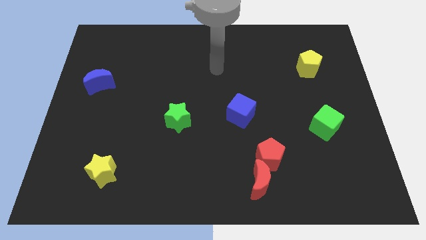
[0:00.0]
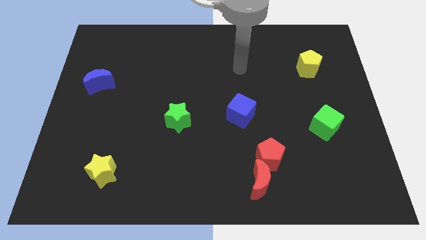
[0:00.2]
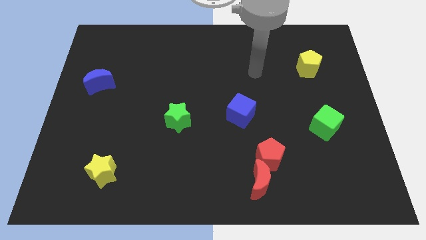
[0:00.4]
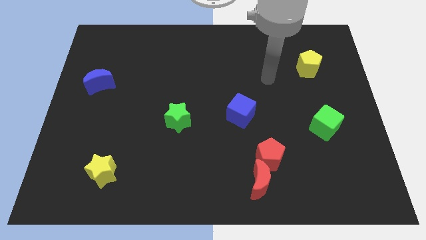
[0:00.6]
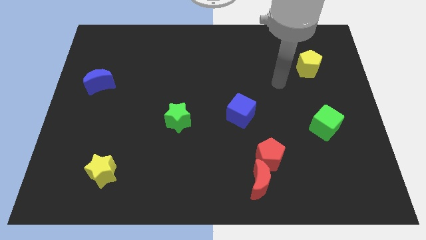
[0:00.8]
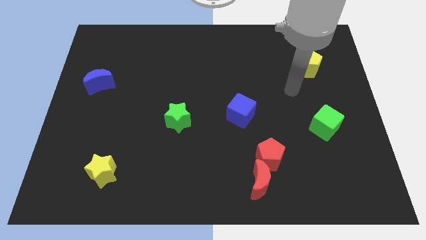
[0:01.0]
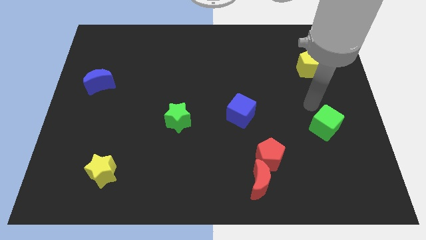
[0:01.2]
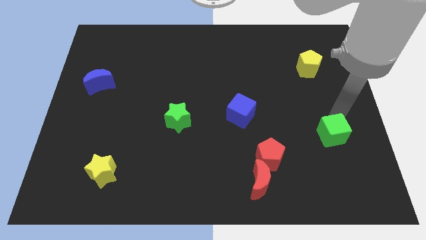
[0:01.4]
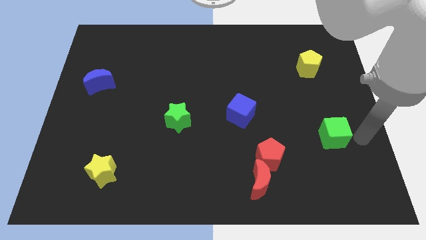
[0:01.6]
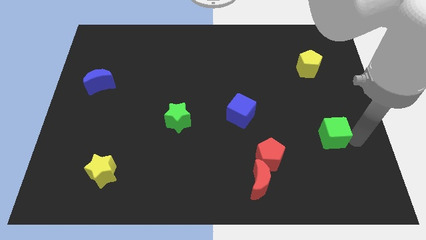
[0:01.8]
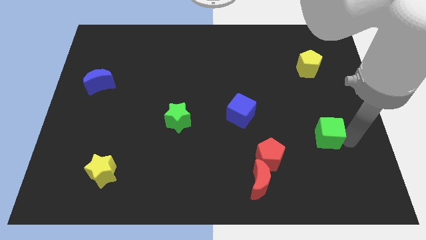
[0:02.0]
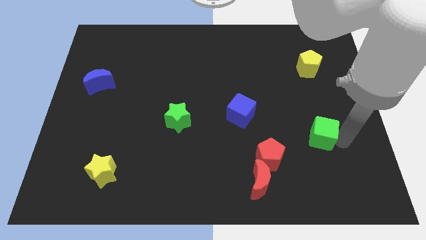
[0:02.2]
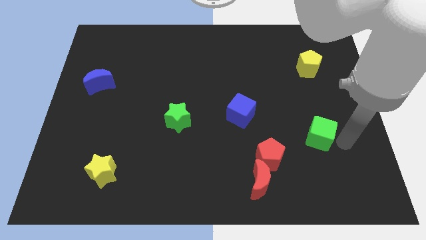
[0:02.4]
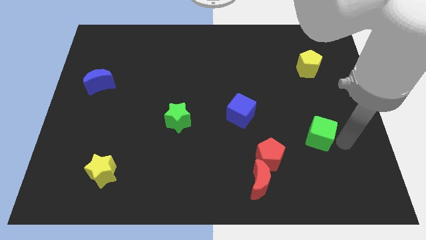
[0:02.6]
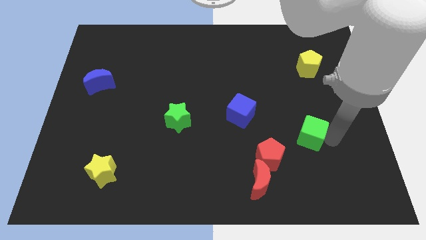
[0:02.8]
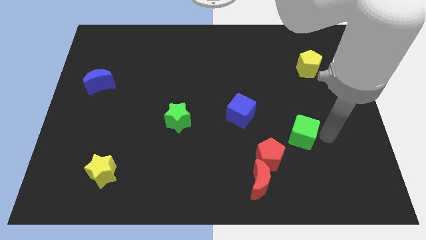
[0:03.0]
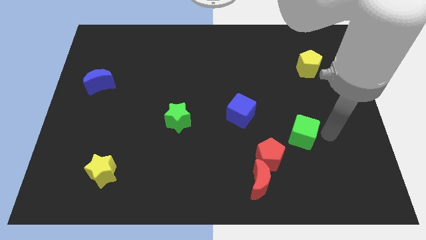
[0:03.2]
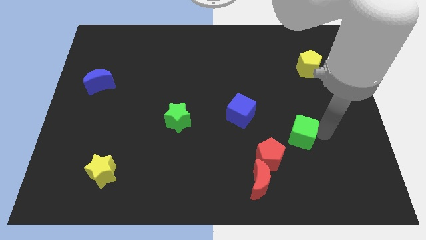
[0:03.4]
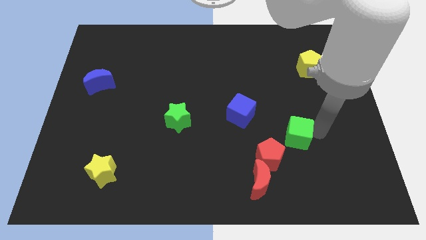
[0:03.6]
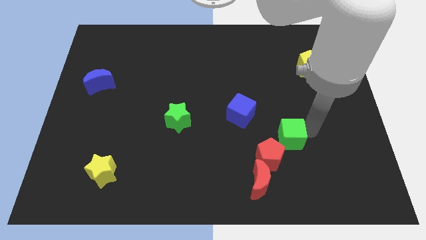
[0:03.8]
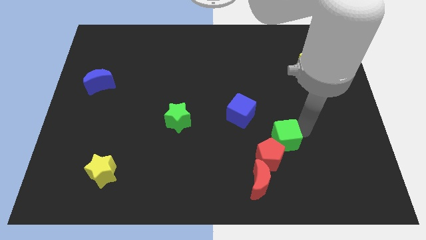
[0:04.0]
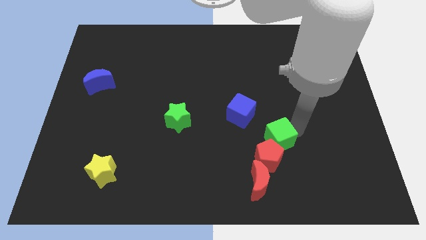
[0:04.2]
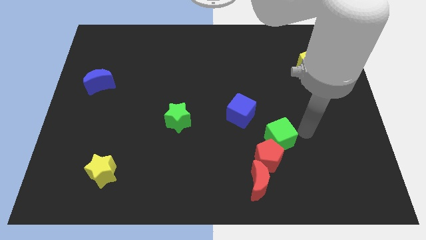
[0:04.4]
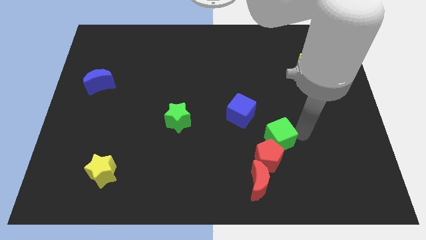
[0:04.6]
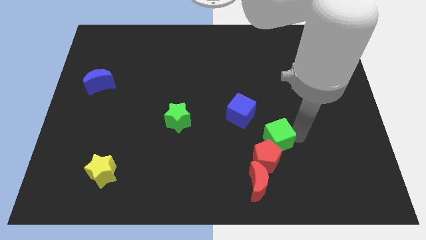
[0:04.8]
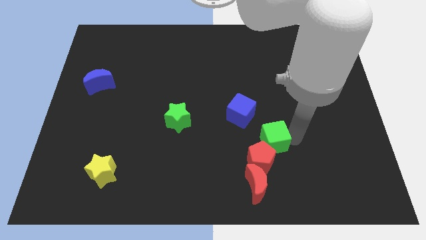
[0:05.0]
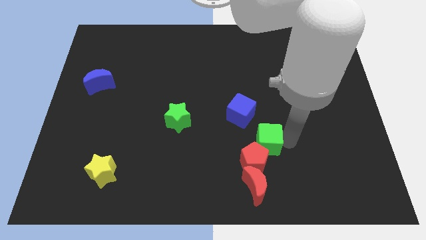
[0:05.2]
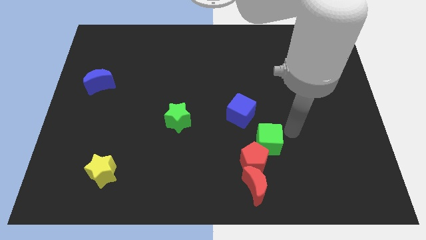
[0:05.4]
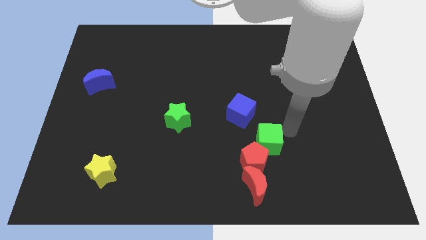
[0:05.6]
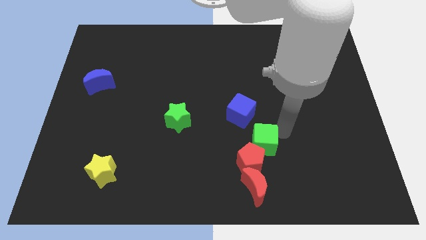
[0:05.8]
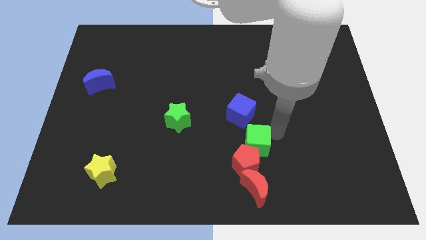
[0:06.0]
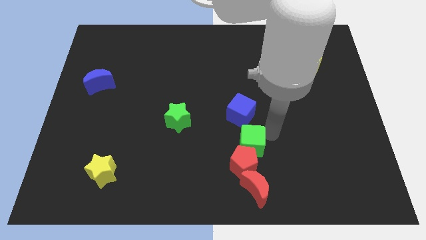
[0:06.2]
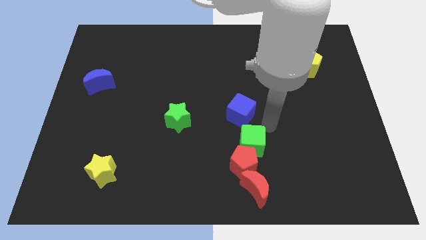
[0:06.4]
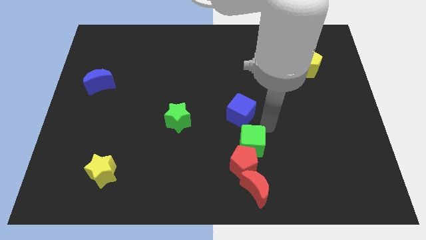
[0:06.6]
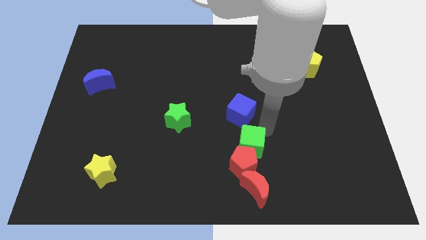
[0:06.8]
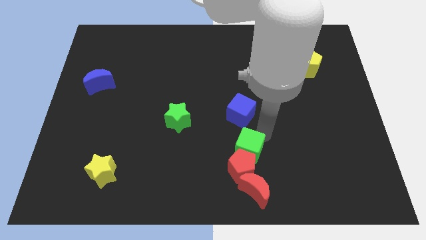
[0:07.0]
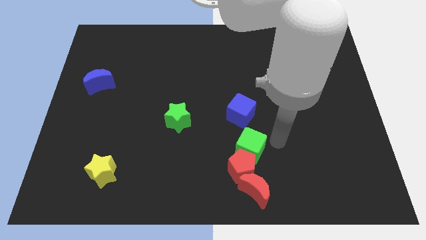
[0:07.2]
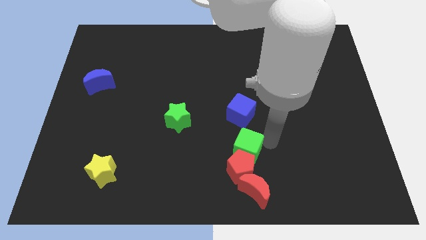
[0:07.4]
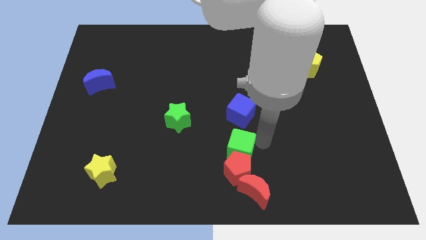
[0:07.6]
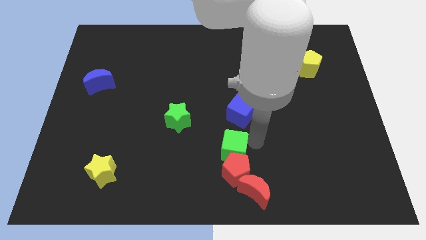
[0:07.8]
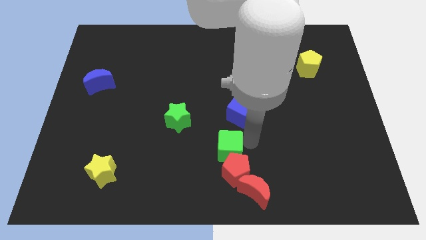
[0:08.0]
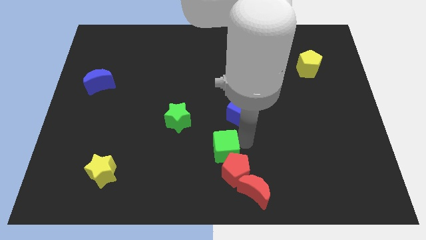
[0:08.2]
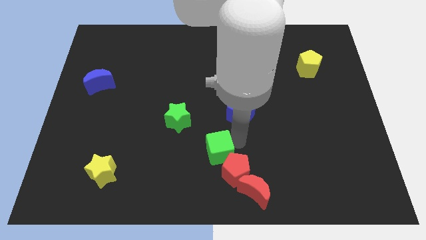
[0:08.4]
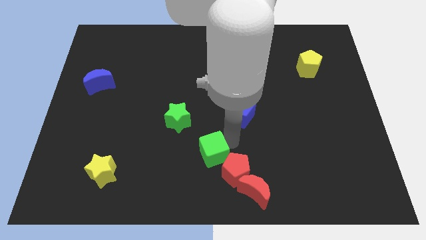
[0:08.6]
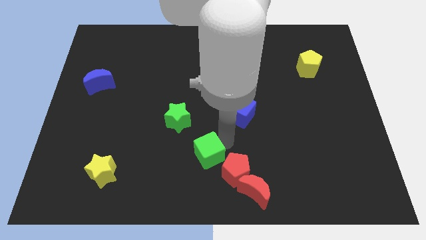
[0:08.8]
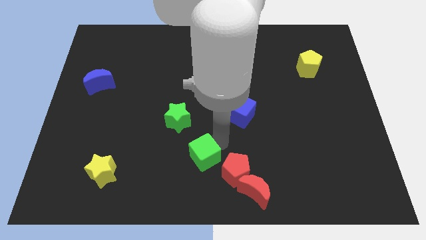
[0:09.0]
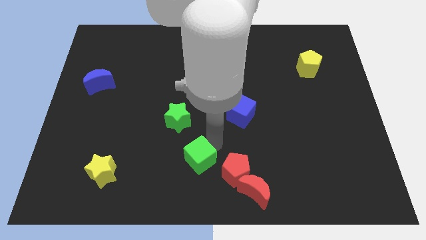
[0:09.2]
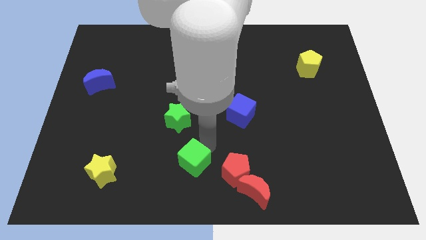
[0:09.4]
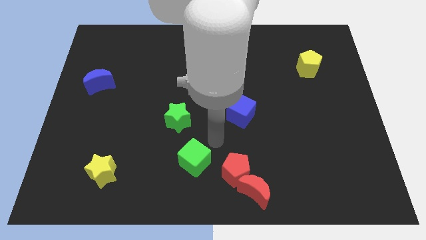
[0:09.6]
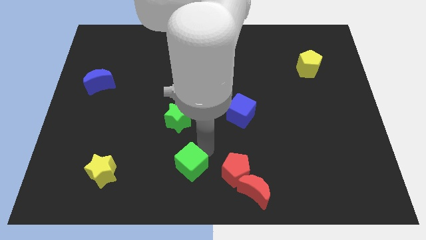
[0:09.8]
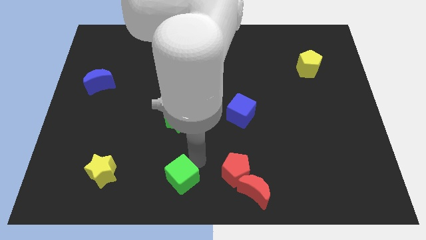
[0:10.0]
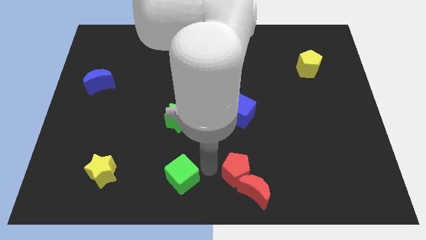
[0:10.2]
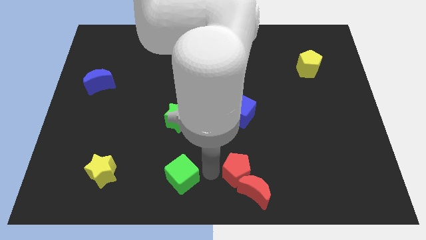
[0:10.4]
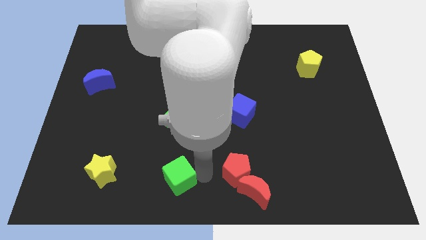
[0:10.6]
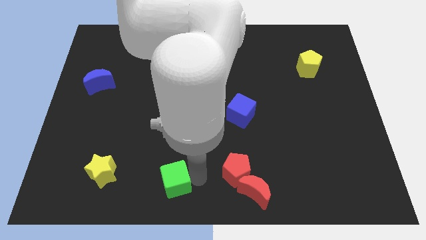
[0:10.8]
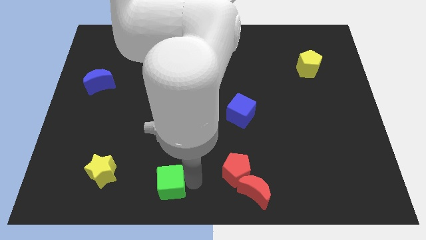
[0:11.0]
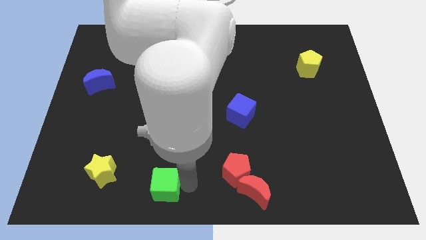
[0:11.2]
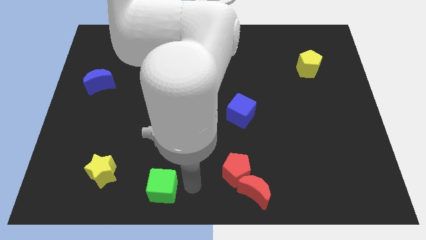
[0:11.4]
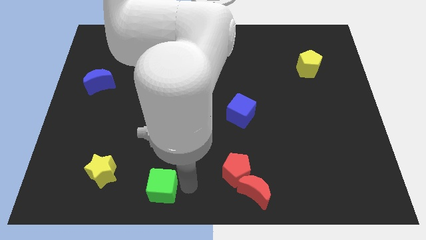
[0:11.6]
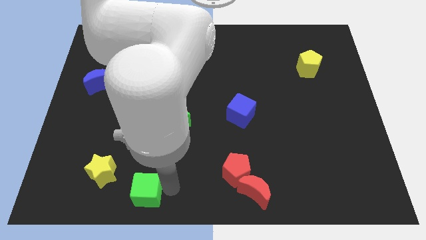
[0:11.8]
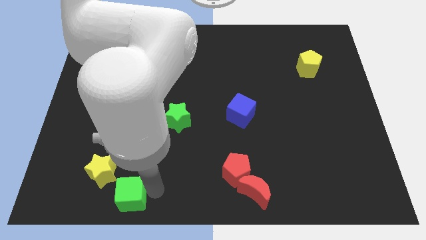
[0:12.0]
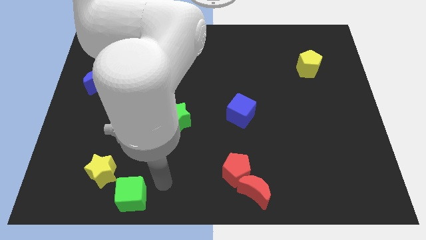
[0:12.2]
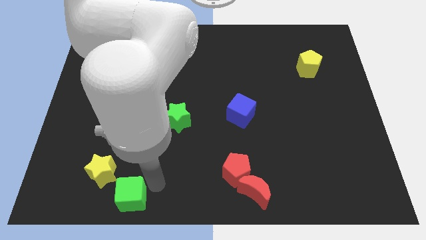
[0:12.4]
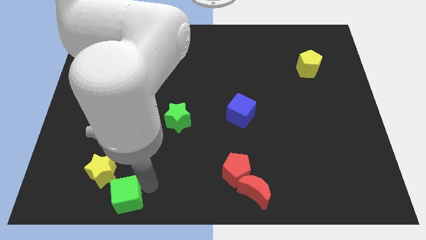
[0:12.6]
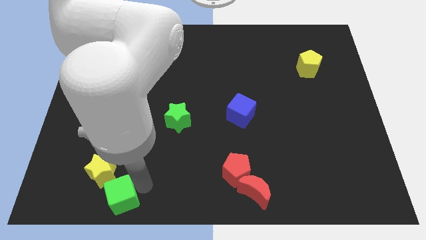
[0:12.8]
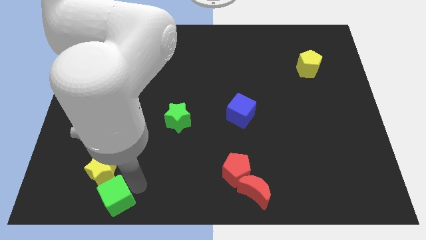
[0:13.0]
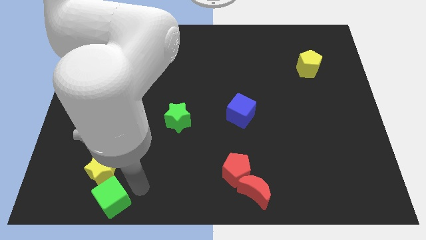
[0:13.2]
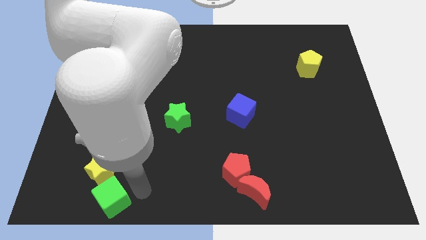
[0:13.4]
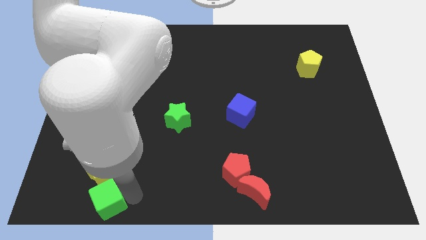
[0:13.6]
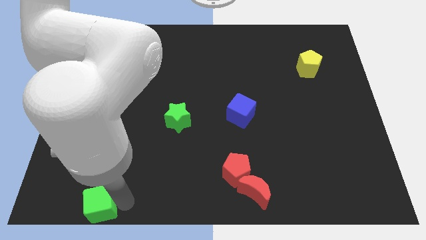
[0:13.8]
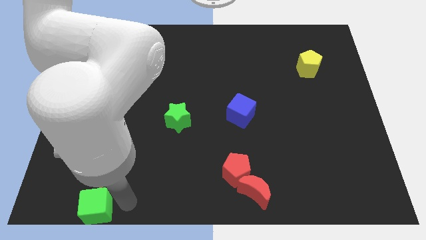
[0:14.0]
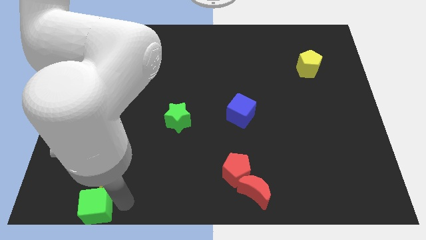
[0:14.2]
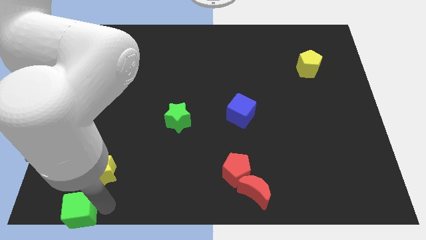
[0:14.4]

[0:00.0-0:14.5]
slide the green cube to the bottom left of the board

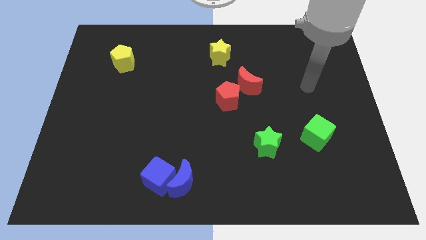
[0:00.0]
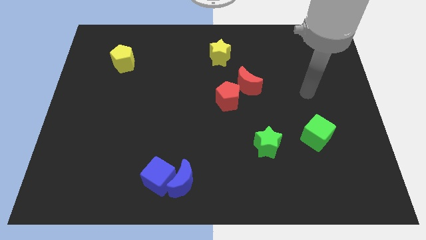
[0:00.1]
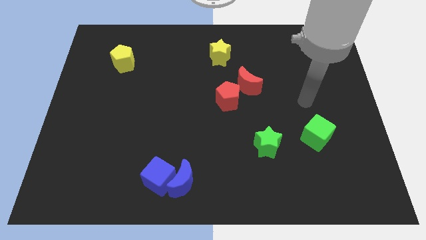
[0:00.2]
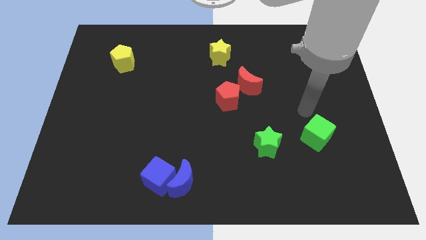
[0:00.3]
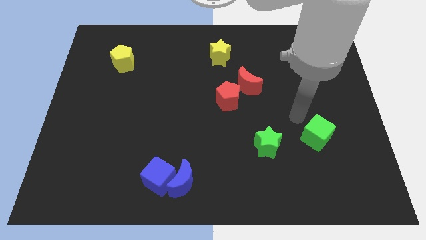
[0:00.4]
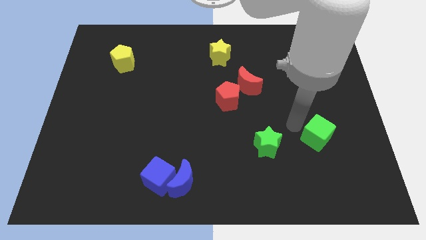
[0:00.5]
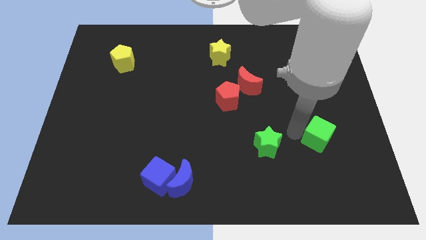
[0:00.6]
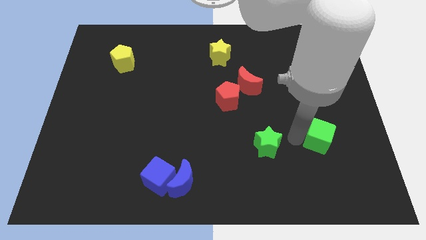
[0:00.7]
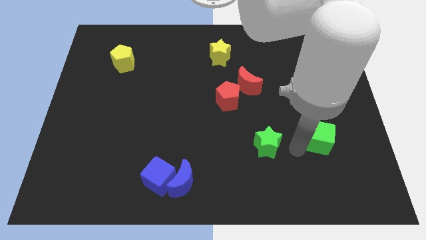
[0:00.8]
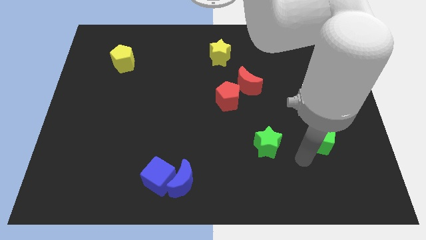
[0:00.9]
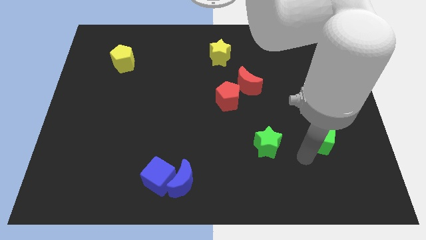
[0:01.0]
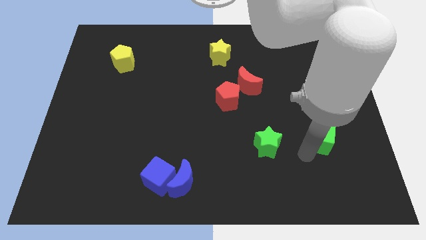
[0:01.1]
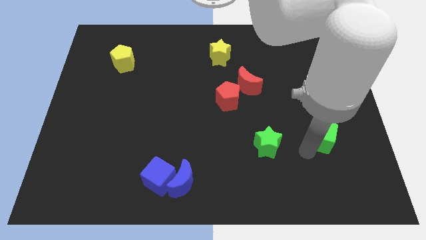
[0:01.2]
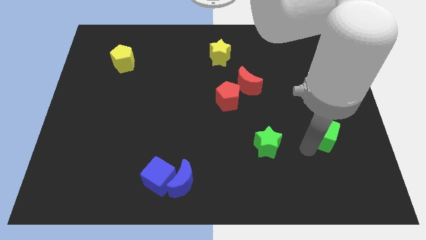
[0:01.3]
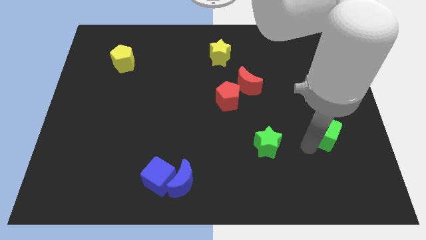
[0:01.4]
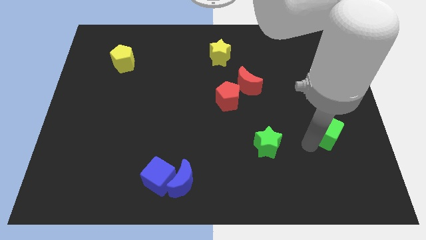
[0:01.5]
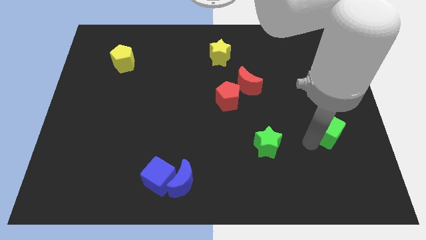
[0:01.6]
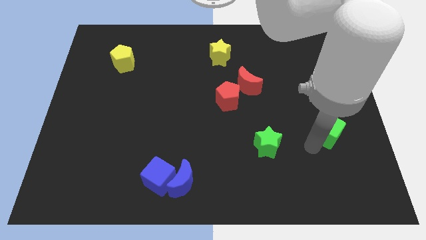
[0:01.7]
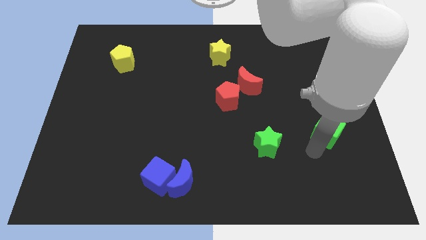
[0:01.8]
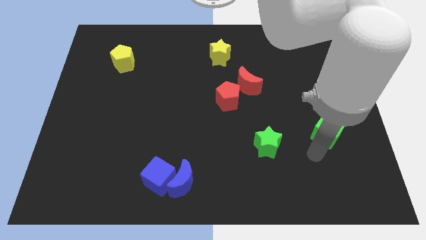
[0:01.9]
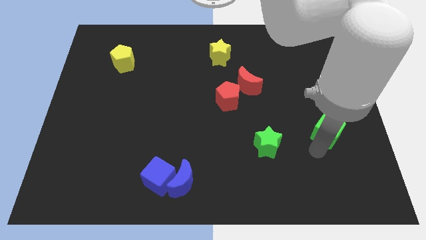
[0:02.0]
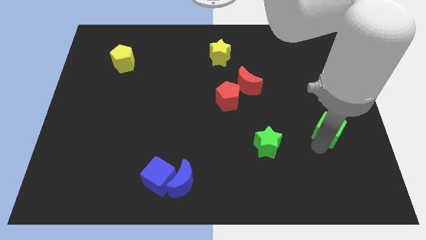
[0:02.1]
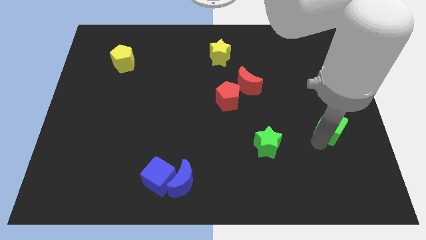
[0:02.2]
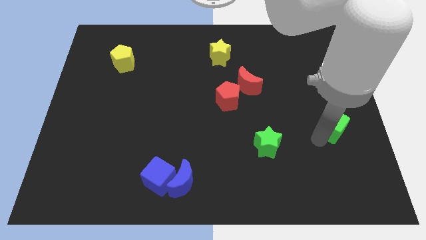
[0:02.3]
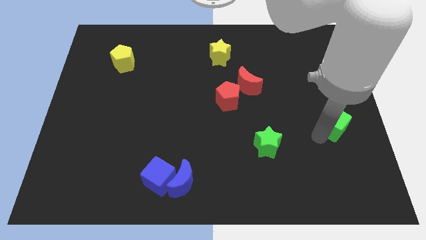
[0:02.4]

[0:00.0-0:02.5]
push the green cube to the right side of the board
